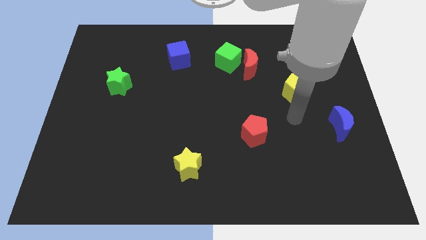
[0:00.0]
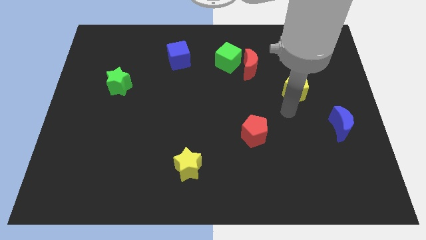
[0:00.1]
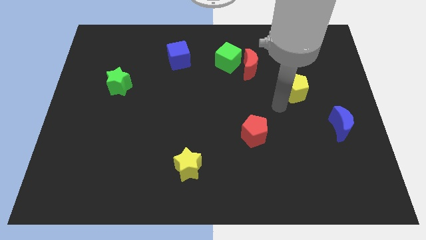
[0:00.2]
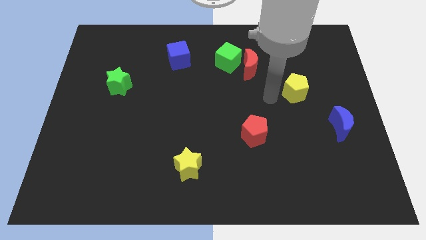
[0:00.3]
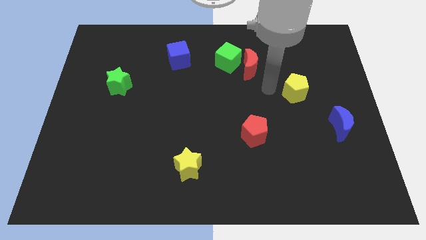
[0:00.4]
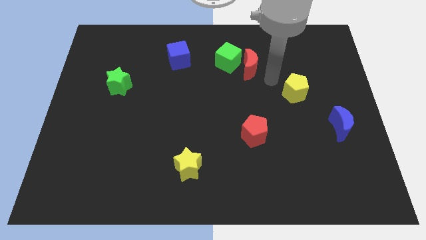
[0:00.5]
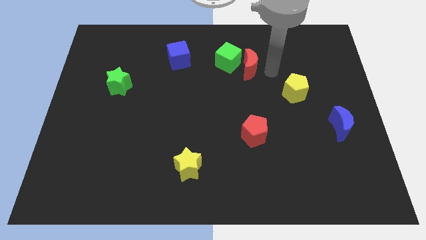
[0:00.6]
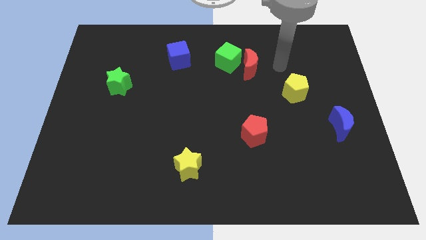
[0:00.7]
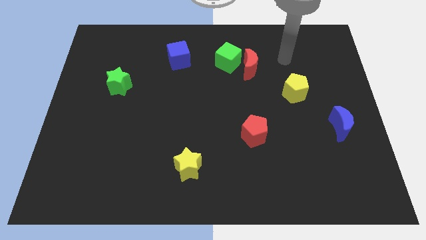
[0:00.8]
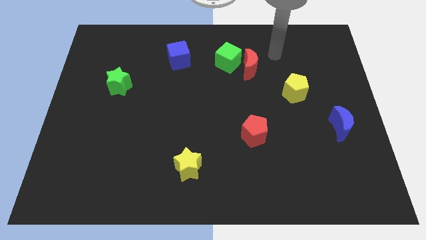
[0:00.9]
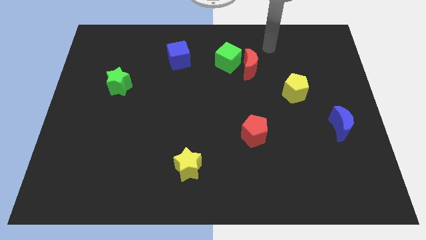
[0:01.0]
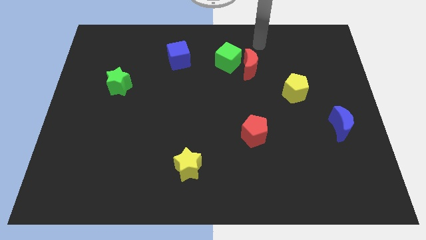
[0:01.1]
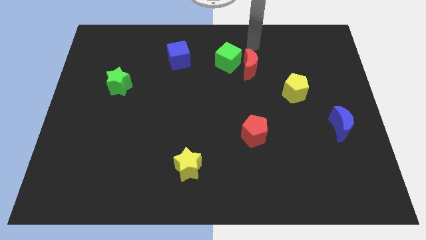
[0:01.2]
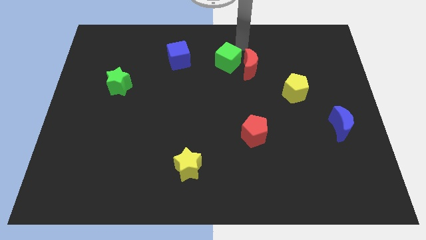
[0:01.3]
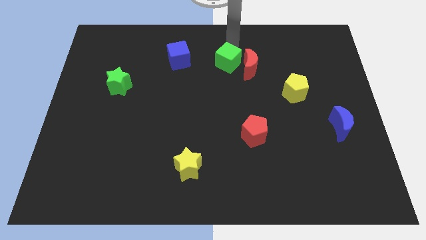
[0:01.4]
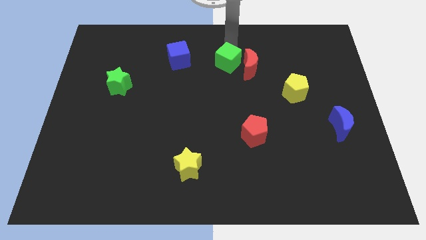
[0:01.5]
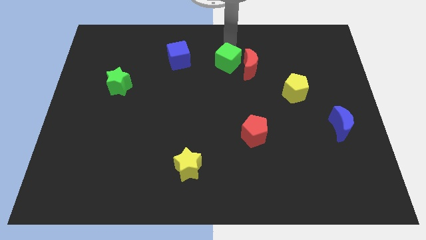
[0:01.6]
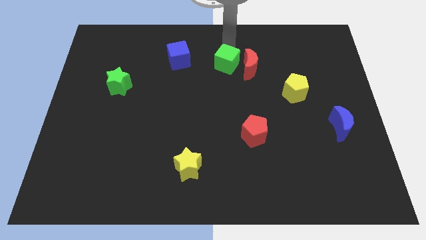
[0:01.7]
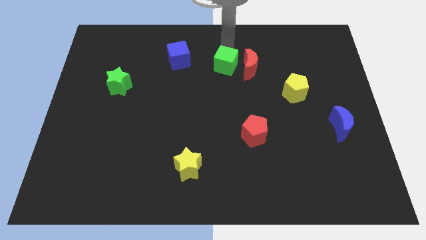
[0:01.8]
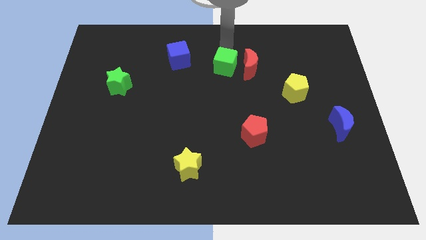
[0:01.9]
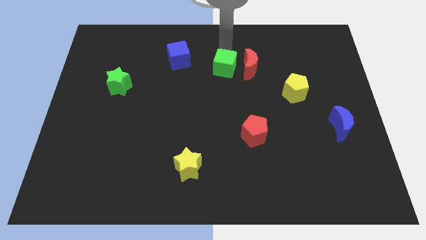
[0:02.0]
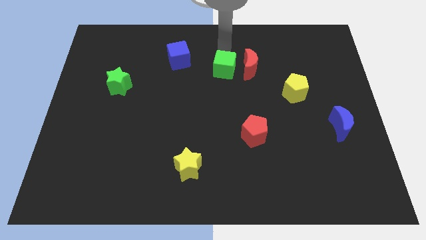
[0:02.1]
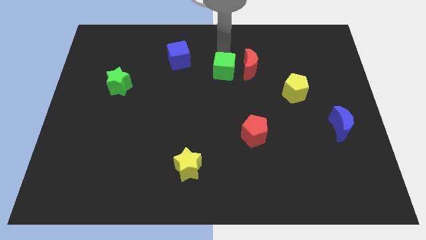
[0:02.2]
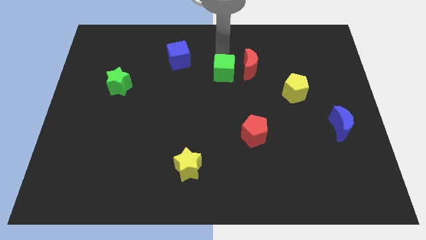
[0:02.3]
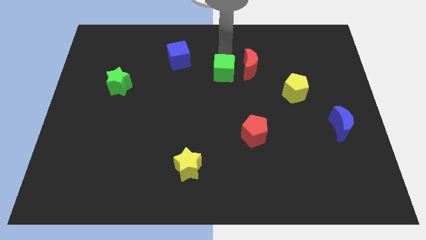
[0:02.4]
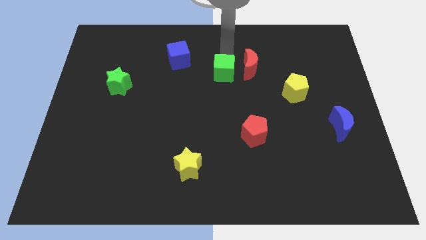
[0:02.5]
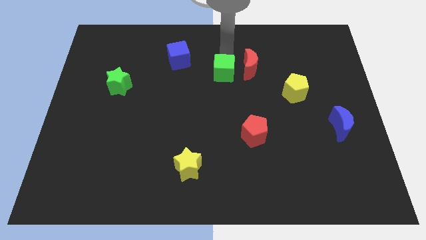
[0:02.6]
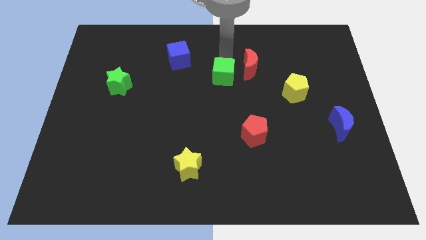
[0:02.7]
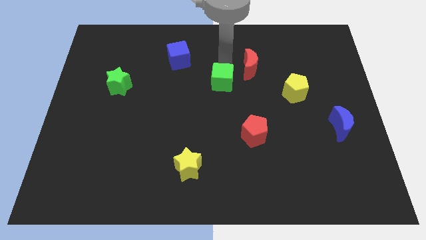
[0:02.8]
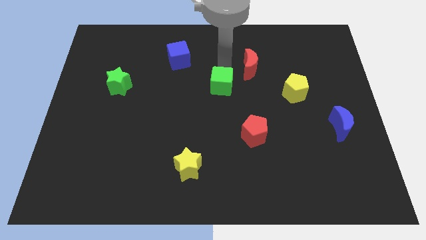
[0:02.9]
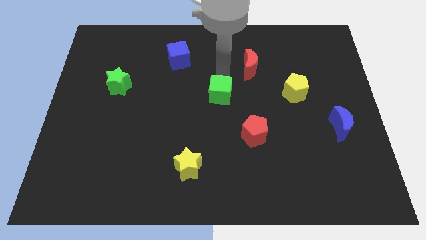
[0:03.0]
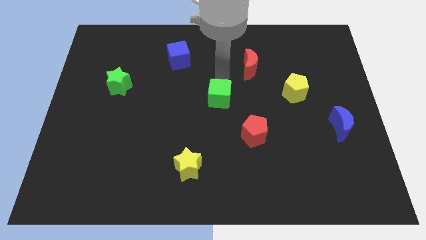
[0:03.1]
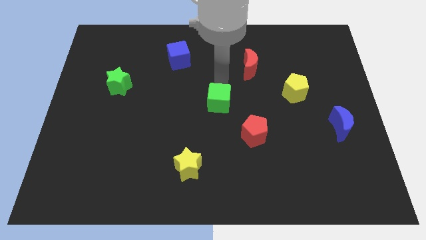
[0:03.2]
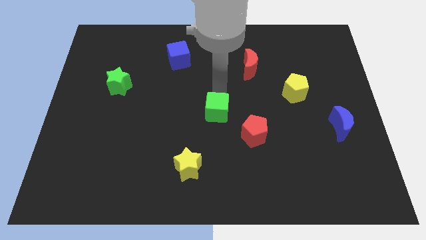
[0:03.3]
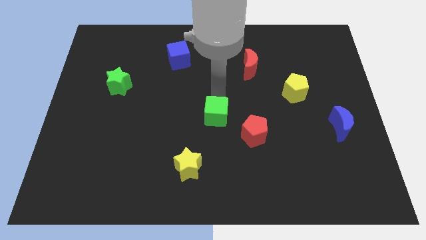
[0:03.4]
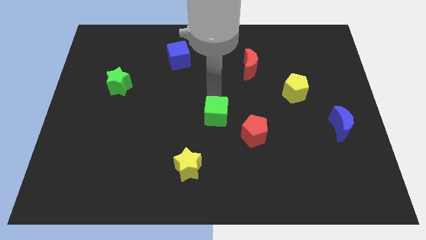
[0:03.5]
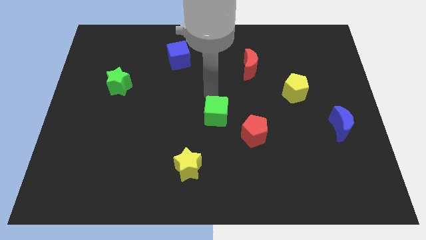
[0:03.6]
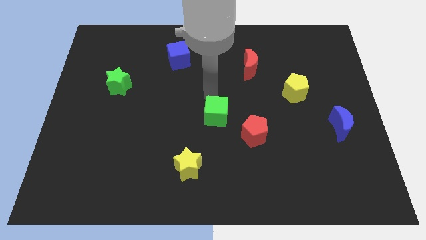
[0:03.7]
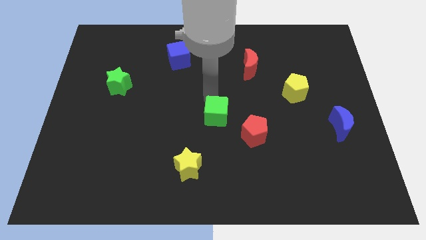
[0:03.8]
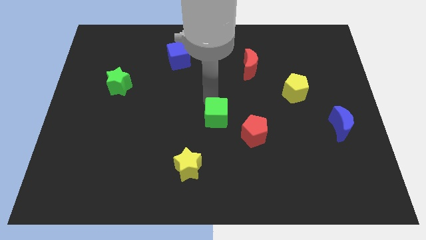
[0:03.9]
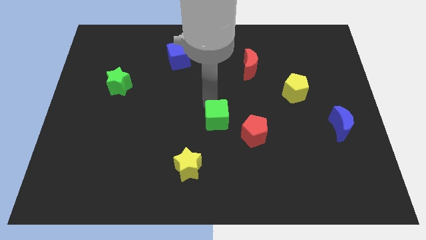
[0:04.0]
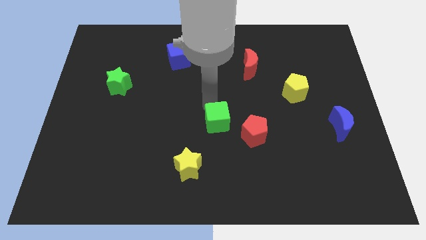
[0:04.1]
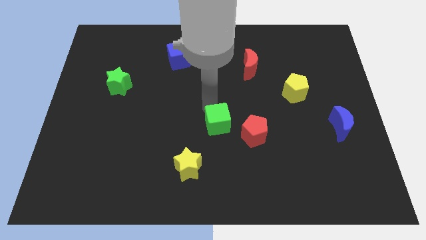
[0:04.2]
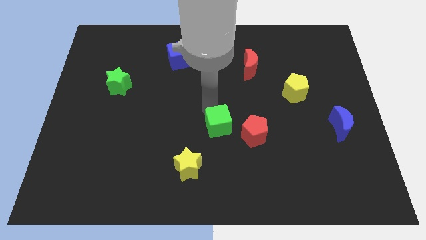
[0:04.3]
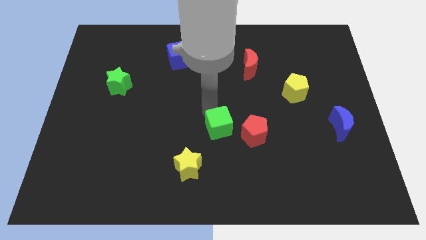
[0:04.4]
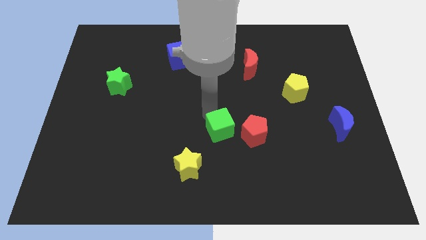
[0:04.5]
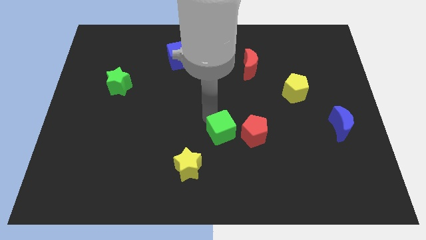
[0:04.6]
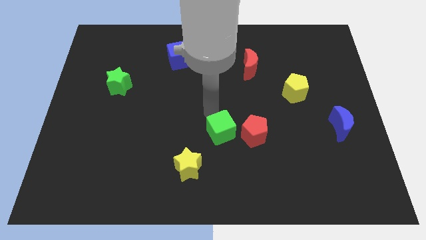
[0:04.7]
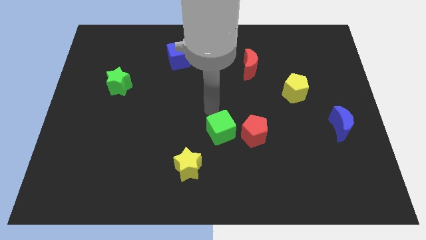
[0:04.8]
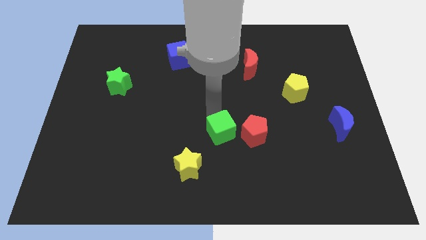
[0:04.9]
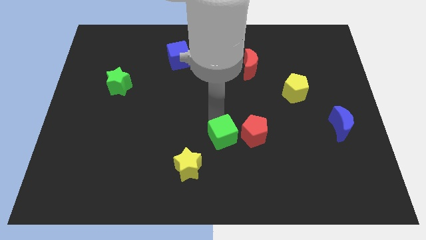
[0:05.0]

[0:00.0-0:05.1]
push the green cube to the bottom left of the red pentagon
